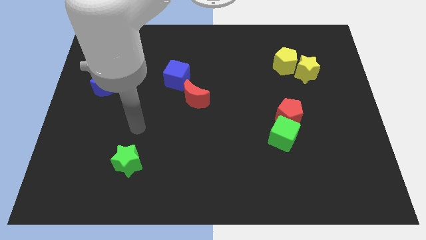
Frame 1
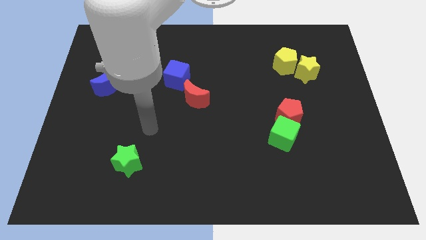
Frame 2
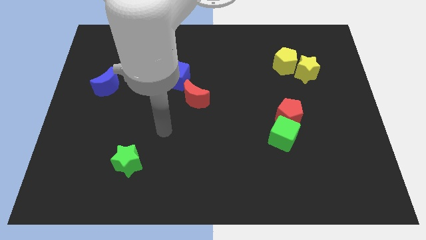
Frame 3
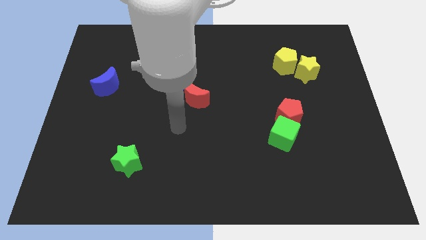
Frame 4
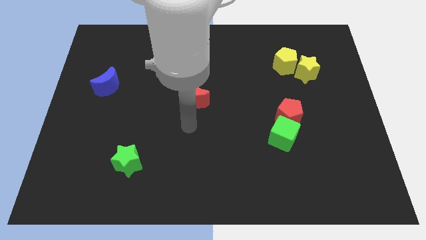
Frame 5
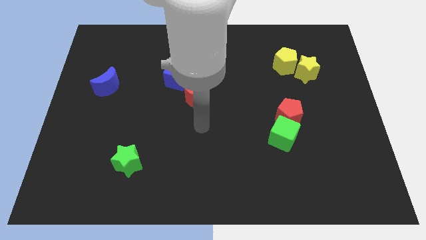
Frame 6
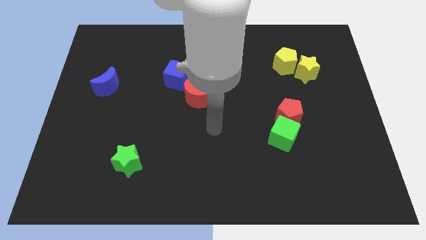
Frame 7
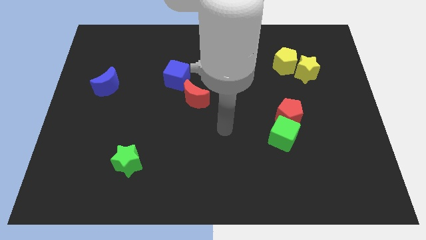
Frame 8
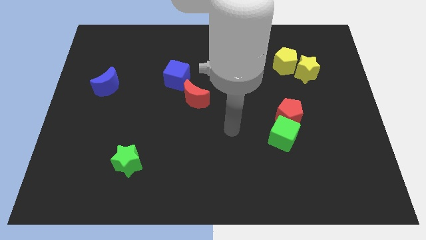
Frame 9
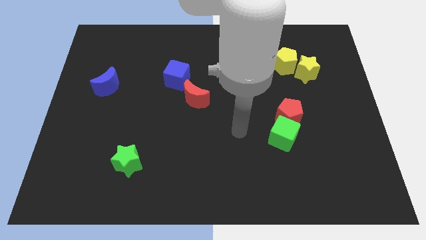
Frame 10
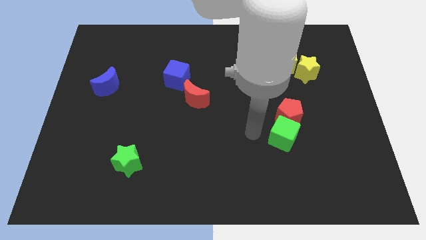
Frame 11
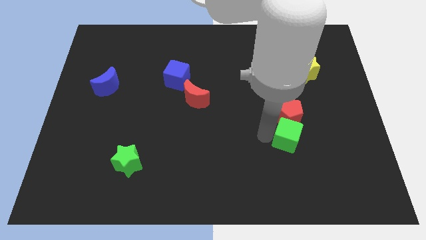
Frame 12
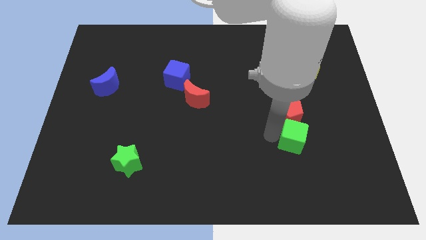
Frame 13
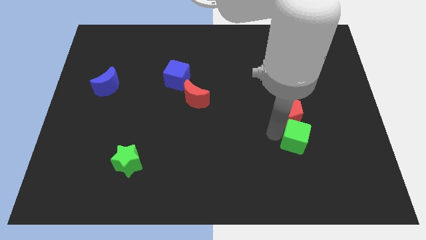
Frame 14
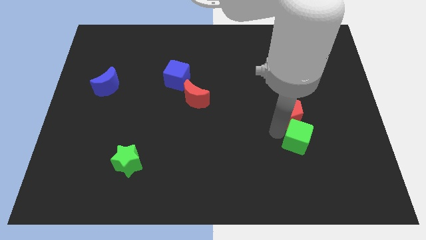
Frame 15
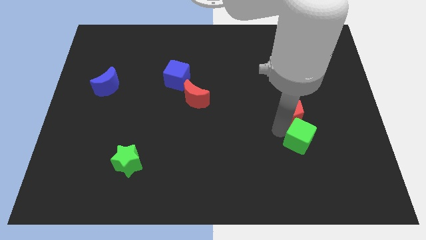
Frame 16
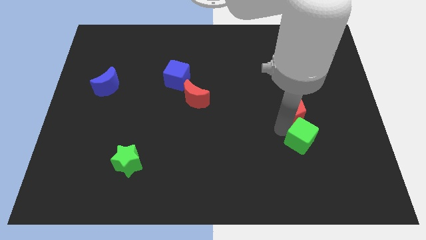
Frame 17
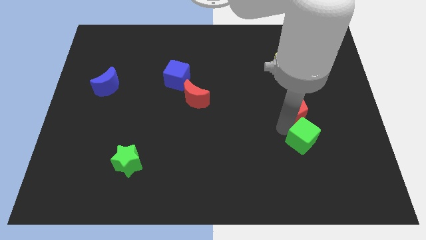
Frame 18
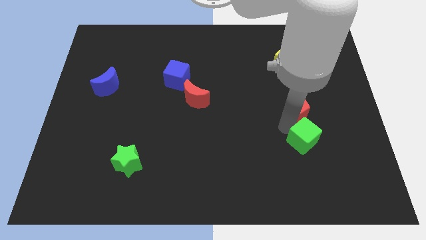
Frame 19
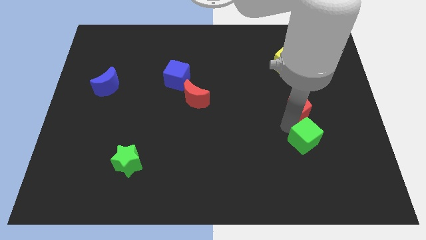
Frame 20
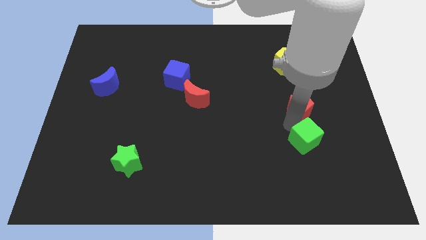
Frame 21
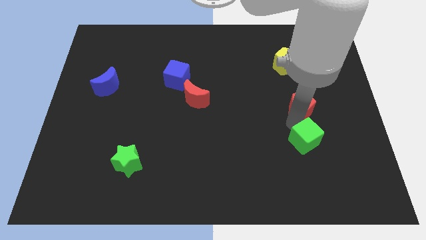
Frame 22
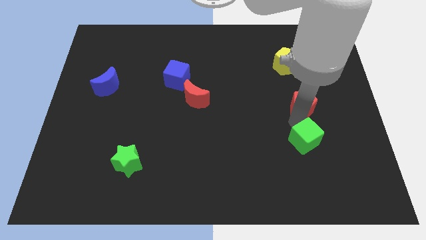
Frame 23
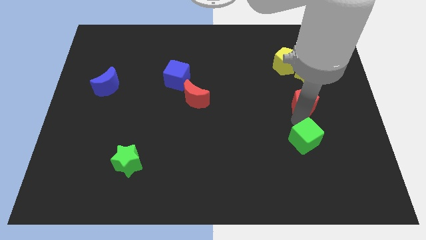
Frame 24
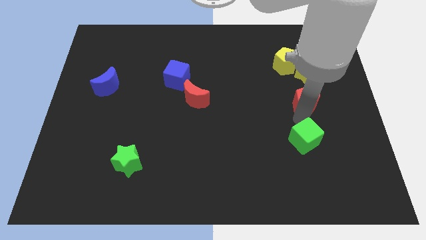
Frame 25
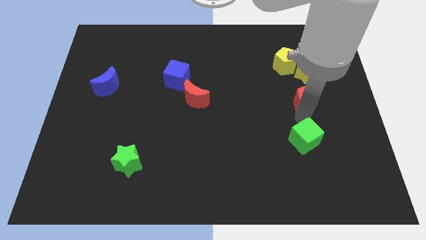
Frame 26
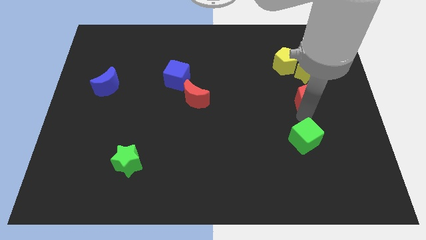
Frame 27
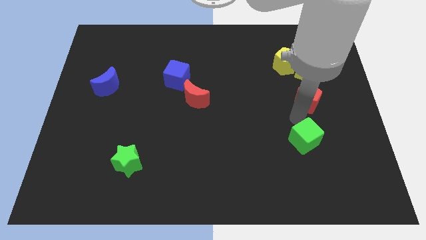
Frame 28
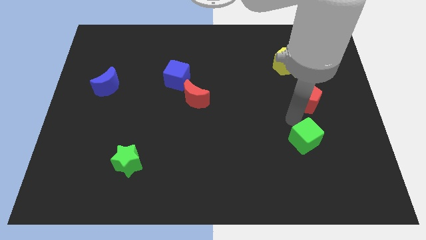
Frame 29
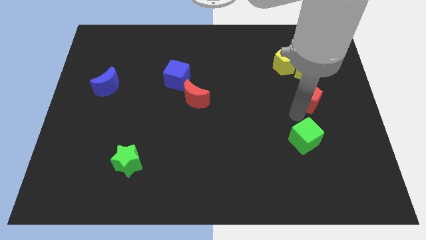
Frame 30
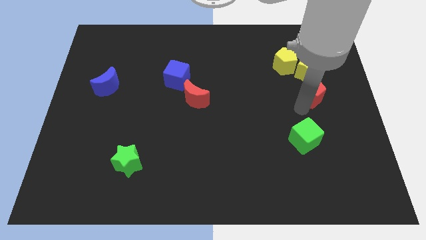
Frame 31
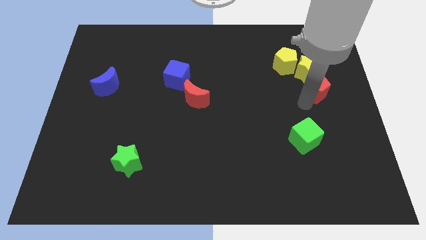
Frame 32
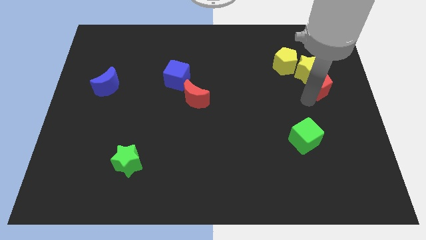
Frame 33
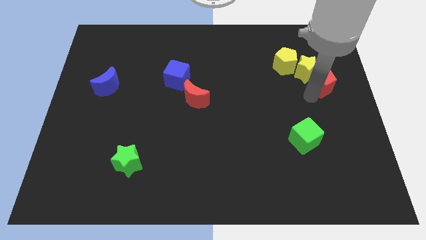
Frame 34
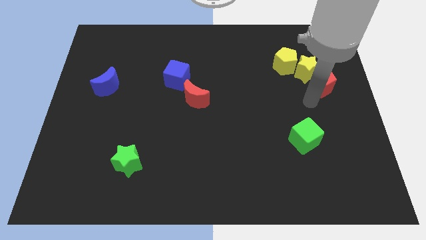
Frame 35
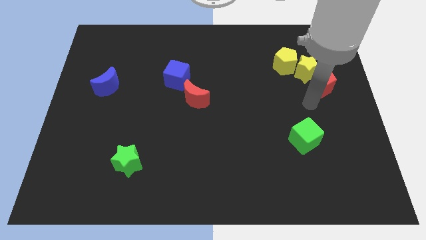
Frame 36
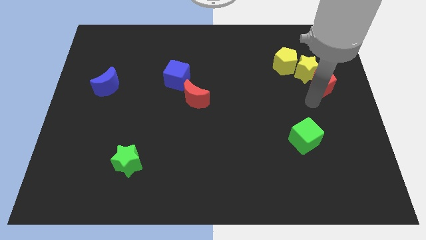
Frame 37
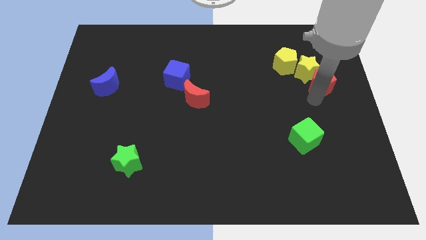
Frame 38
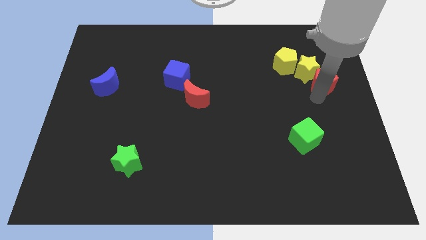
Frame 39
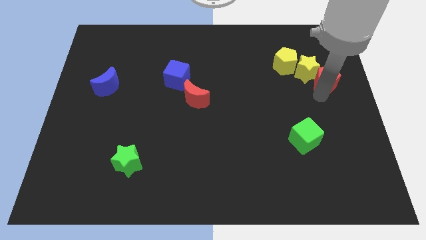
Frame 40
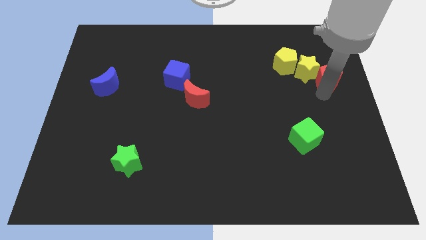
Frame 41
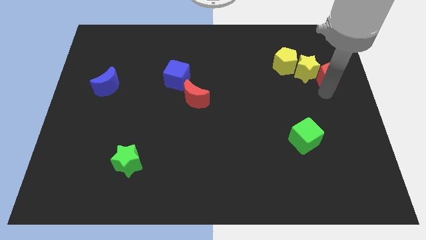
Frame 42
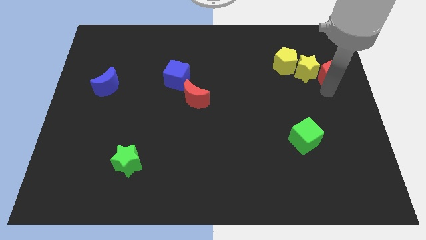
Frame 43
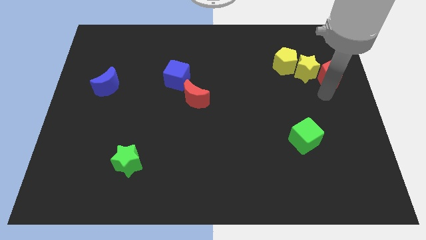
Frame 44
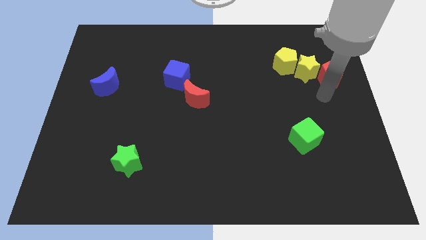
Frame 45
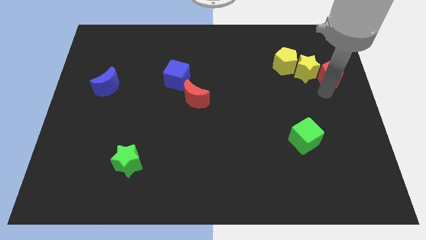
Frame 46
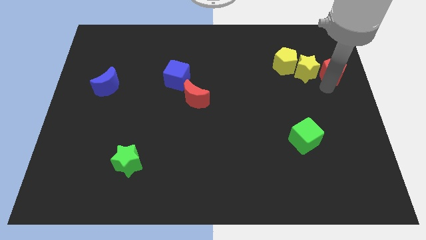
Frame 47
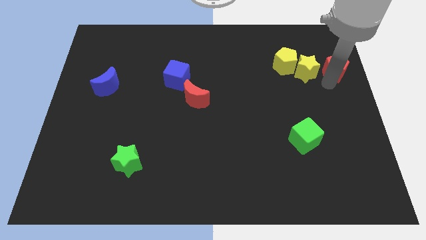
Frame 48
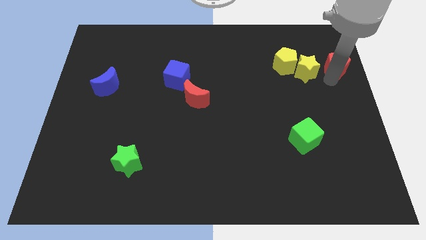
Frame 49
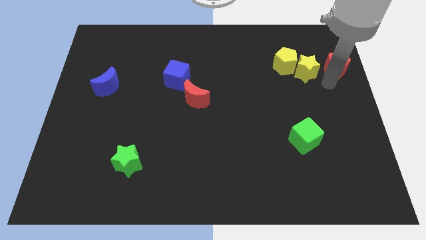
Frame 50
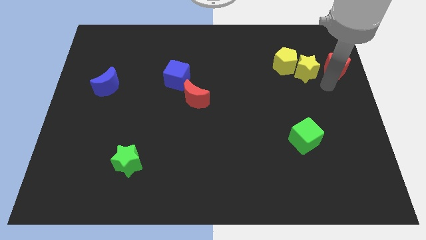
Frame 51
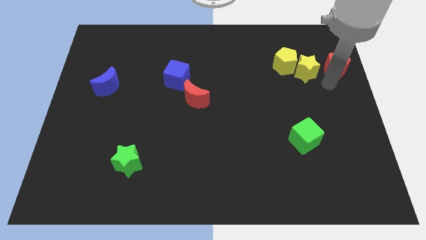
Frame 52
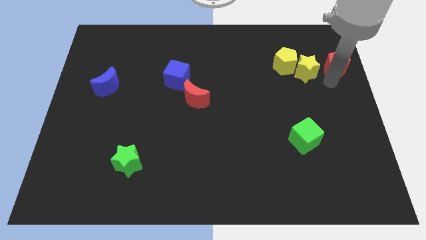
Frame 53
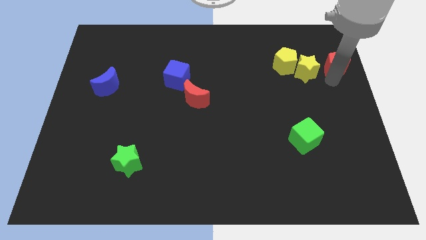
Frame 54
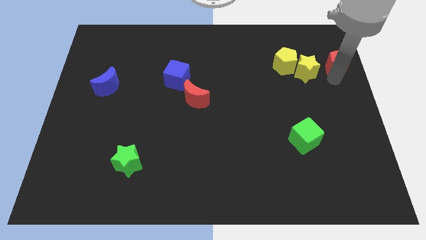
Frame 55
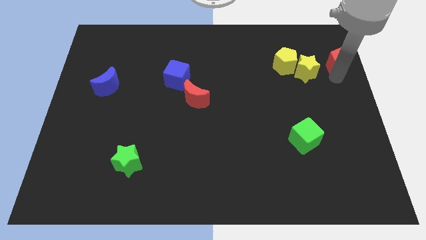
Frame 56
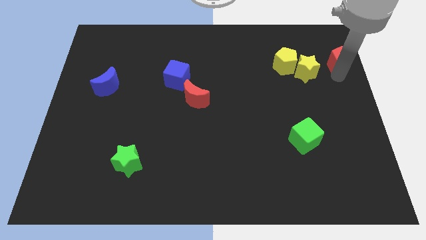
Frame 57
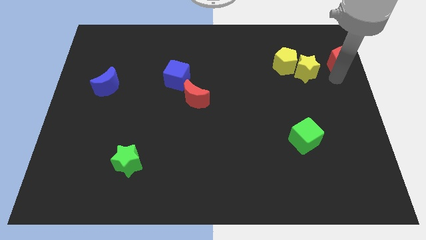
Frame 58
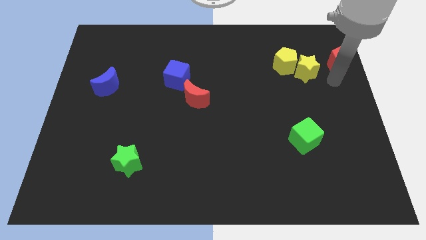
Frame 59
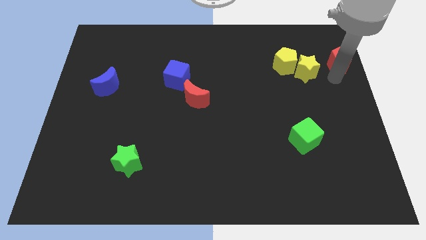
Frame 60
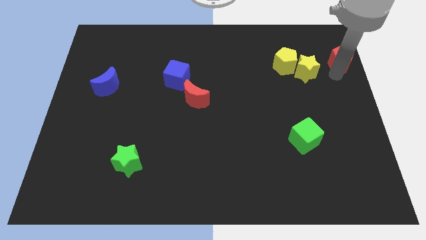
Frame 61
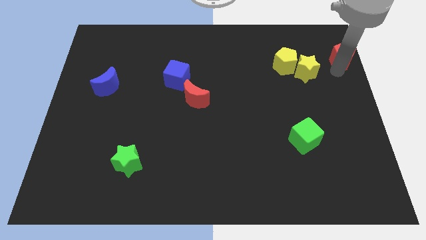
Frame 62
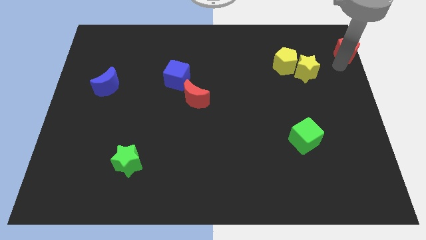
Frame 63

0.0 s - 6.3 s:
push the red pentagon to the top right
